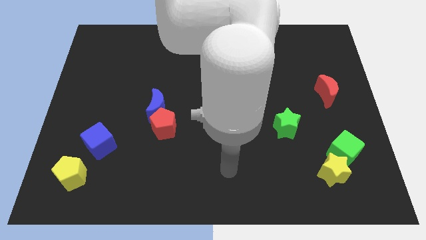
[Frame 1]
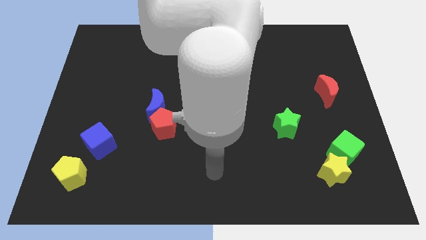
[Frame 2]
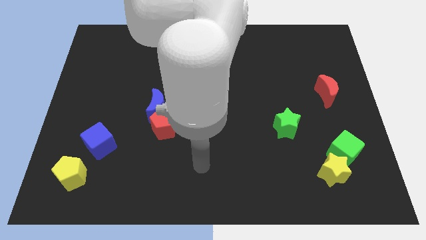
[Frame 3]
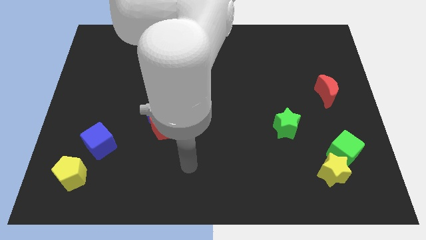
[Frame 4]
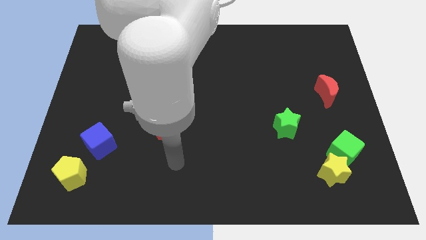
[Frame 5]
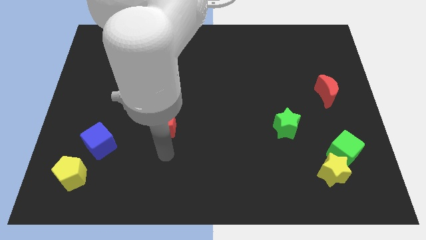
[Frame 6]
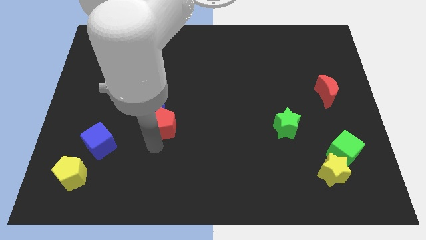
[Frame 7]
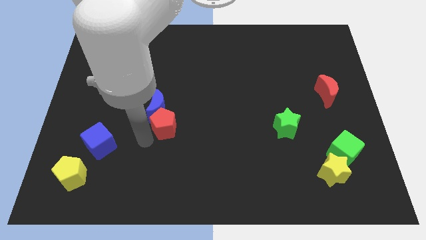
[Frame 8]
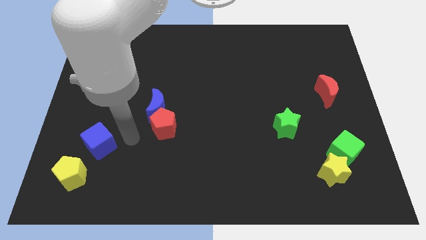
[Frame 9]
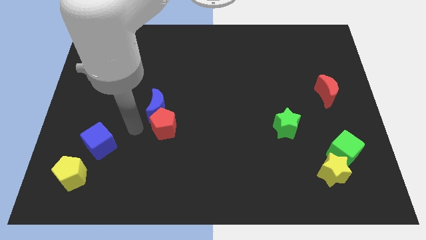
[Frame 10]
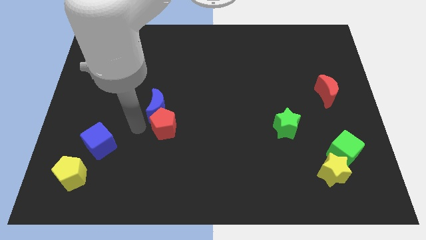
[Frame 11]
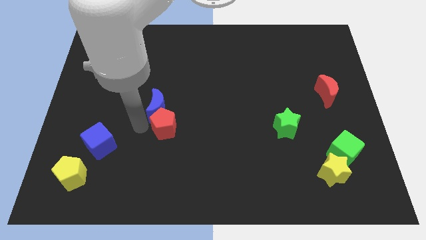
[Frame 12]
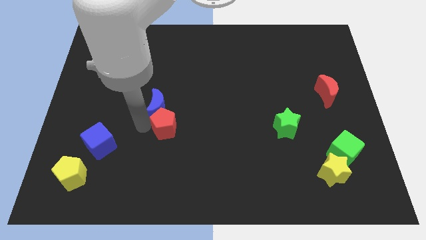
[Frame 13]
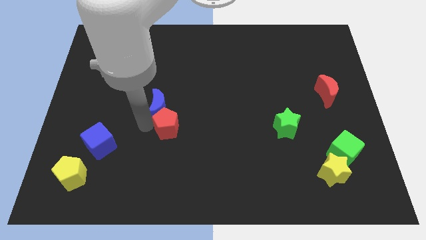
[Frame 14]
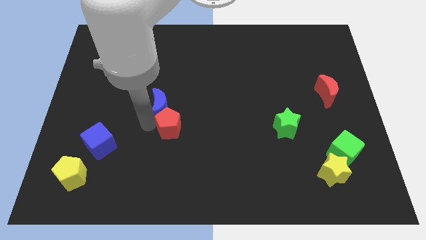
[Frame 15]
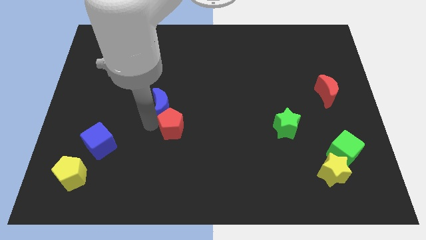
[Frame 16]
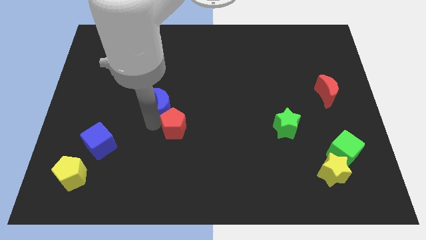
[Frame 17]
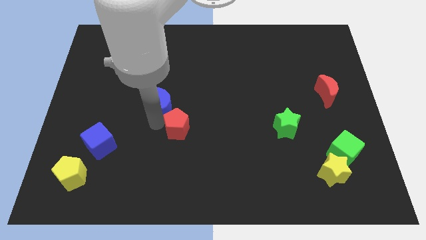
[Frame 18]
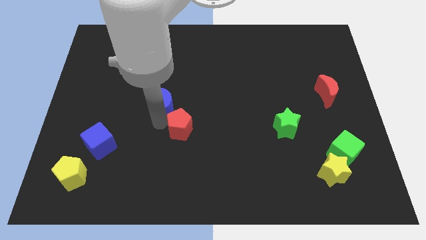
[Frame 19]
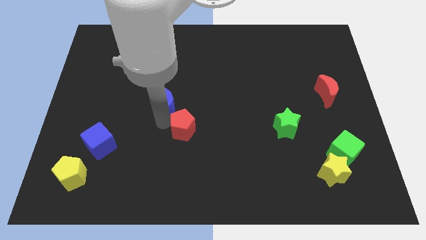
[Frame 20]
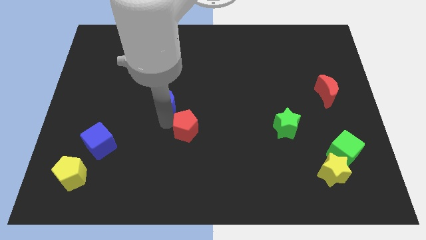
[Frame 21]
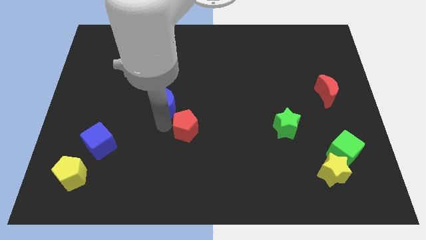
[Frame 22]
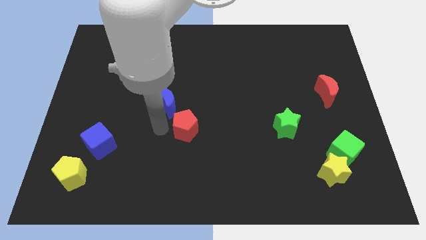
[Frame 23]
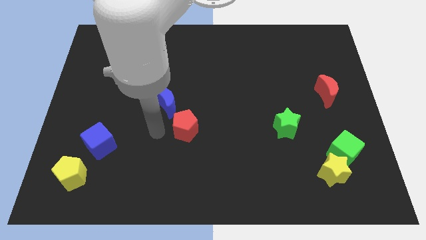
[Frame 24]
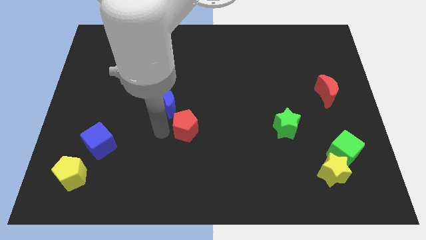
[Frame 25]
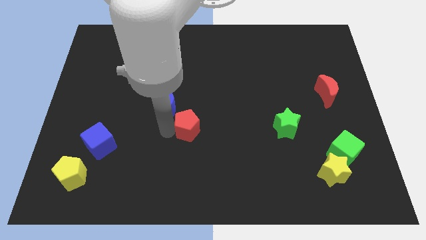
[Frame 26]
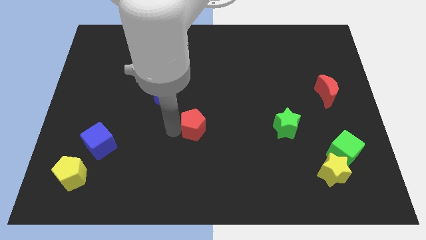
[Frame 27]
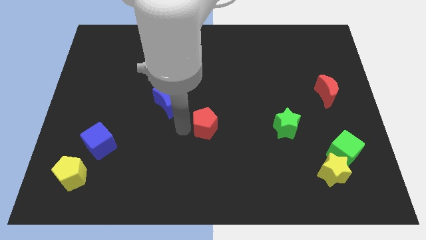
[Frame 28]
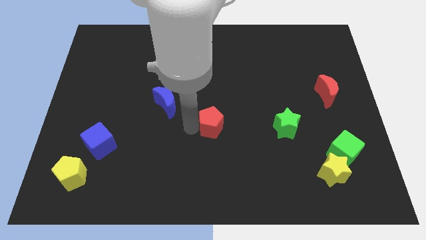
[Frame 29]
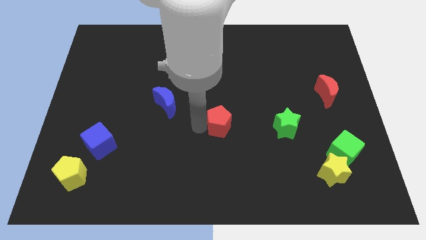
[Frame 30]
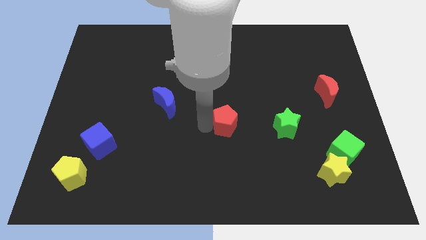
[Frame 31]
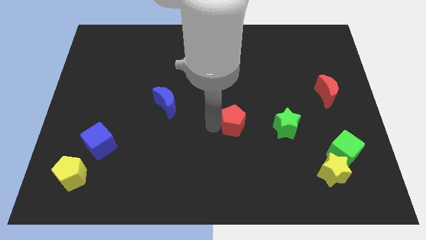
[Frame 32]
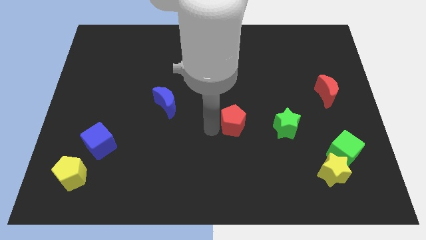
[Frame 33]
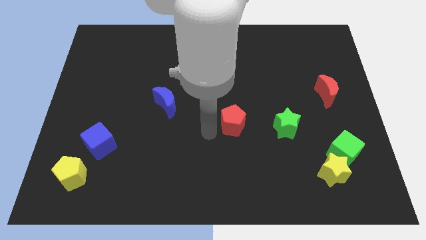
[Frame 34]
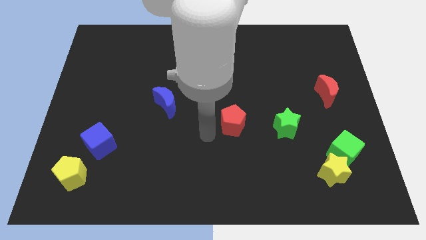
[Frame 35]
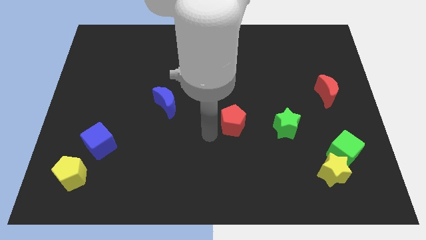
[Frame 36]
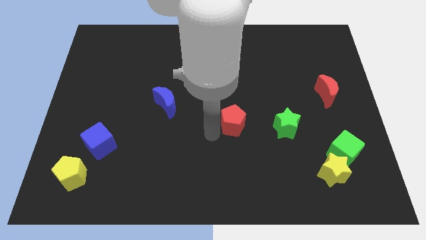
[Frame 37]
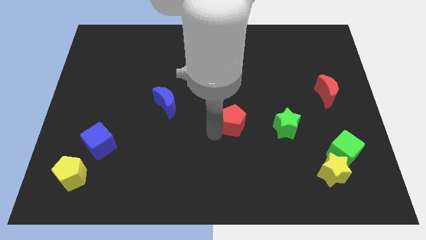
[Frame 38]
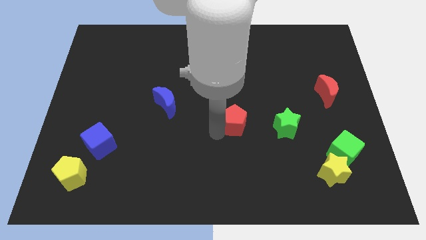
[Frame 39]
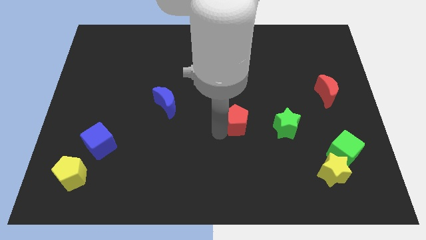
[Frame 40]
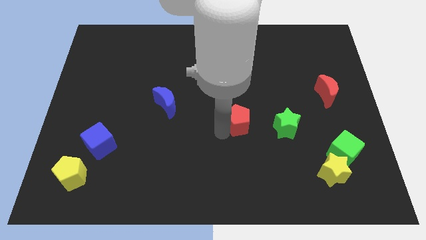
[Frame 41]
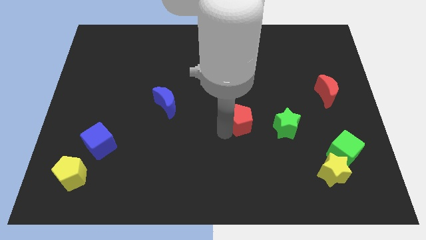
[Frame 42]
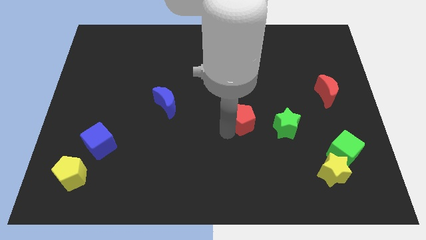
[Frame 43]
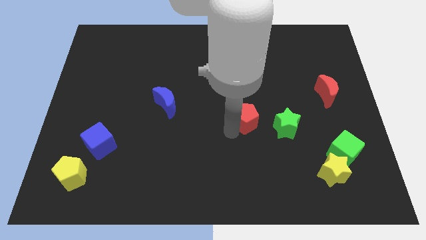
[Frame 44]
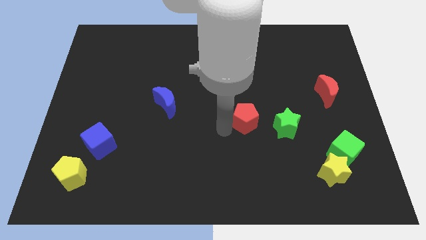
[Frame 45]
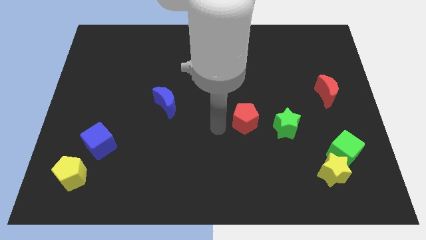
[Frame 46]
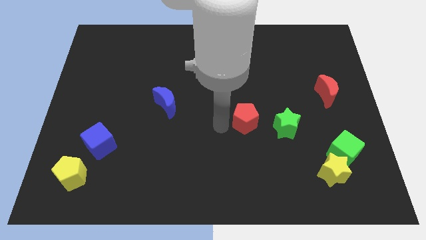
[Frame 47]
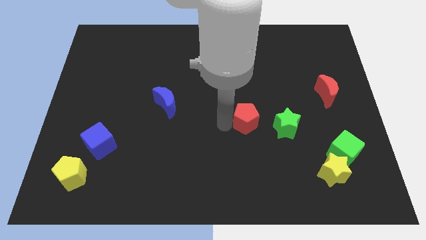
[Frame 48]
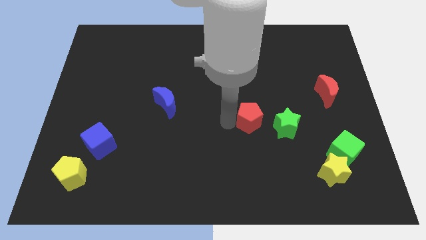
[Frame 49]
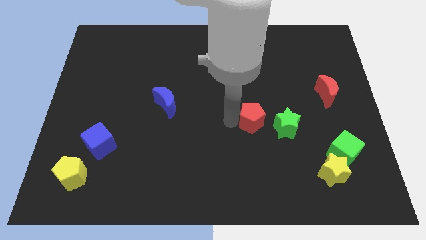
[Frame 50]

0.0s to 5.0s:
move the red pentagon right

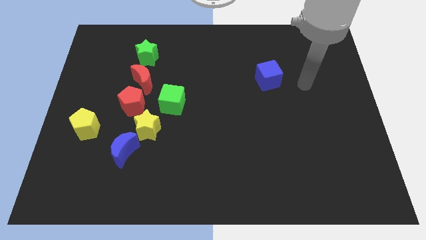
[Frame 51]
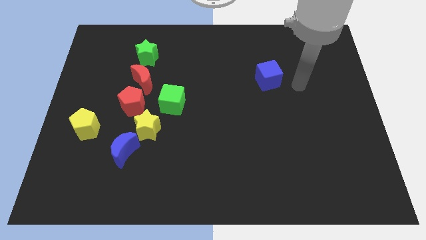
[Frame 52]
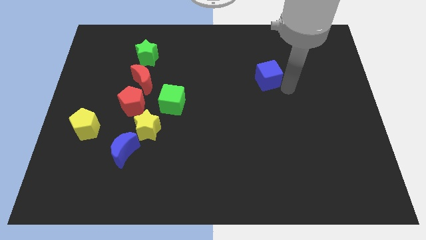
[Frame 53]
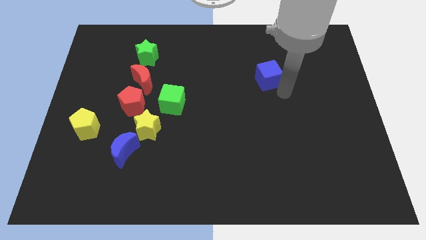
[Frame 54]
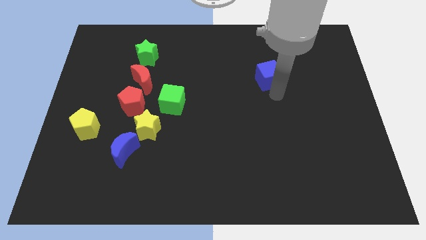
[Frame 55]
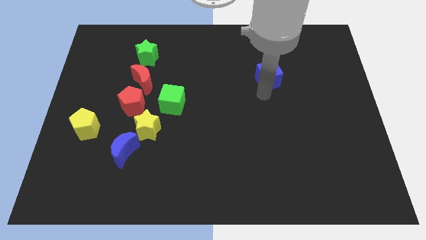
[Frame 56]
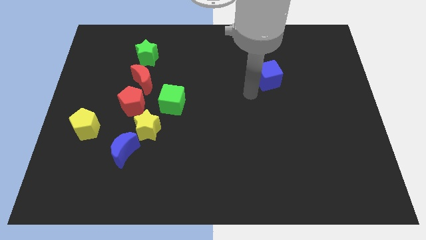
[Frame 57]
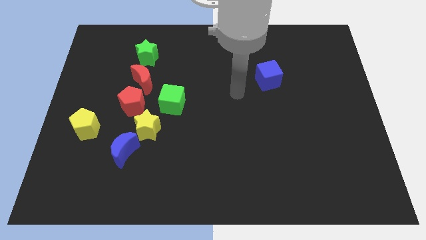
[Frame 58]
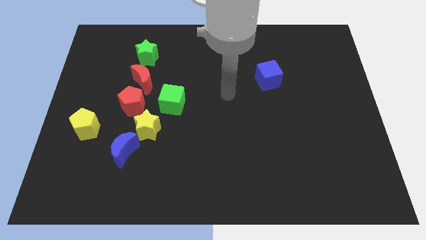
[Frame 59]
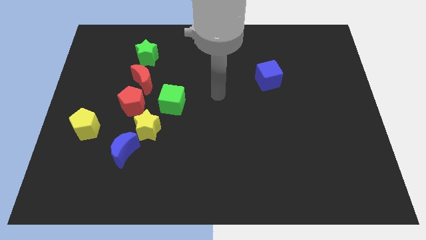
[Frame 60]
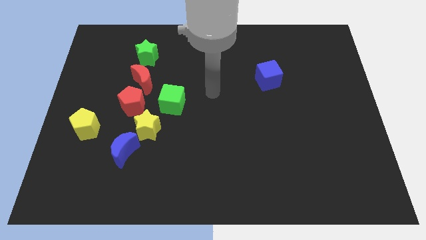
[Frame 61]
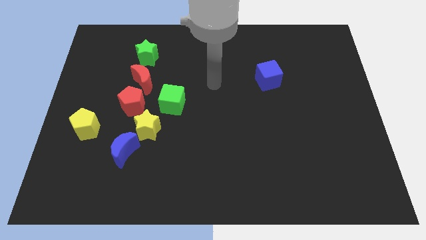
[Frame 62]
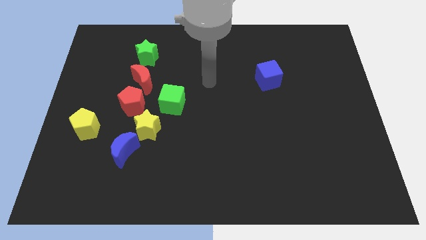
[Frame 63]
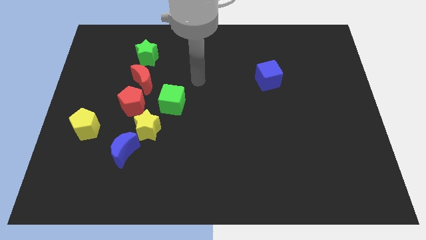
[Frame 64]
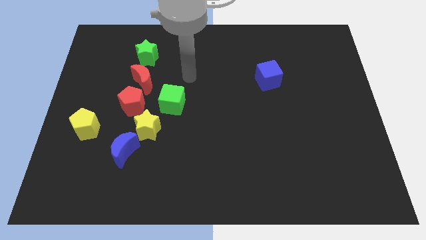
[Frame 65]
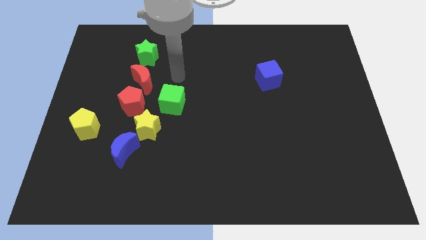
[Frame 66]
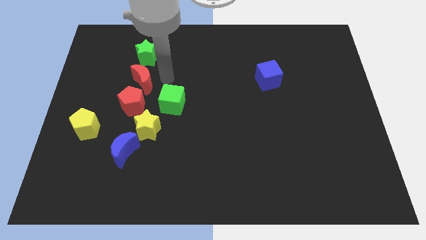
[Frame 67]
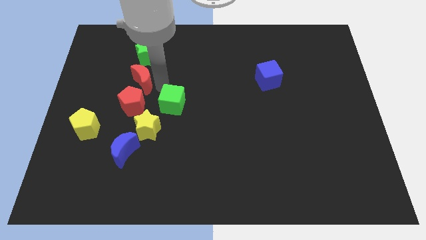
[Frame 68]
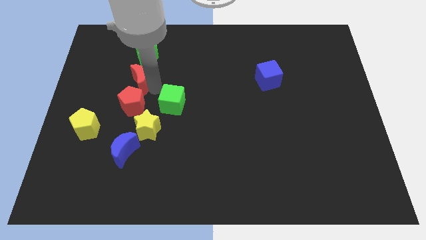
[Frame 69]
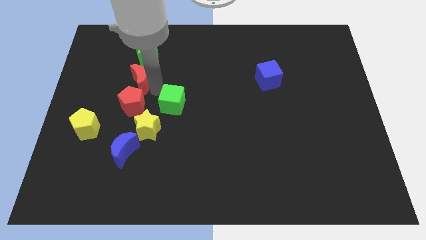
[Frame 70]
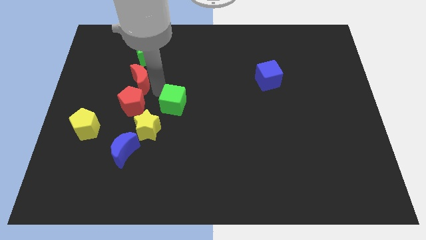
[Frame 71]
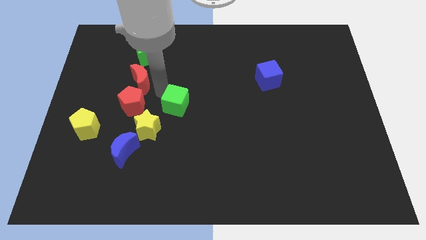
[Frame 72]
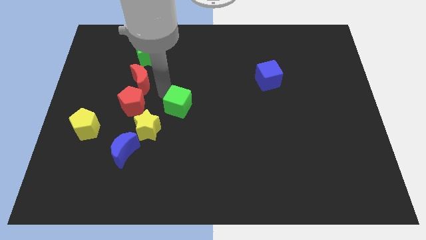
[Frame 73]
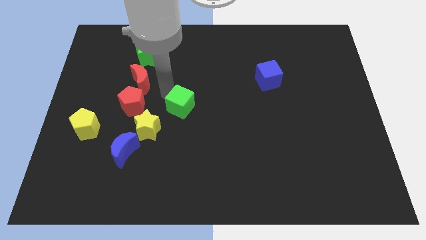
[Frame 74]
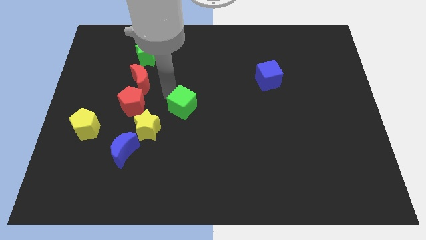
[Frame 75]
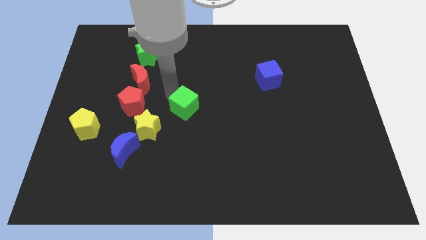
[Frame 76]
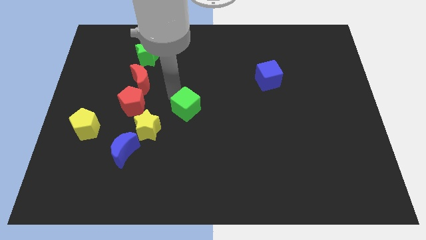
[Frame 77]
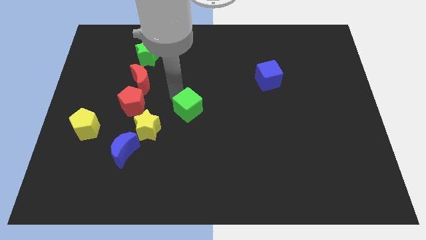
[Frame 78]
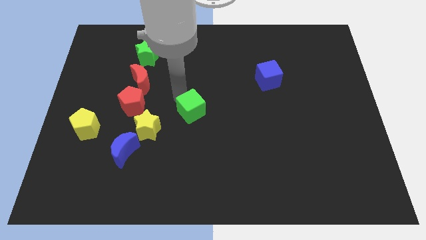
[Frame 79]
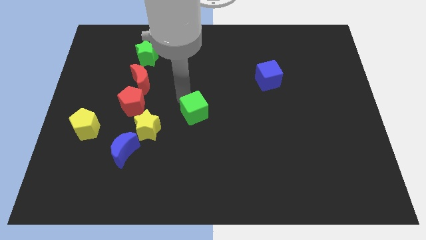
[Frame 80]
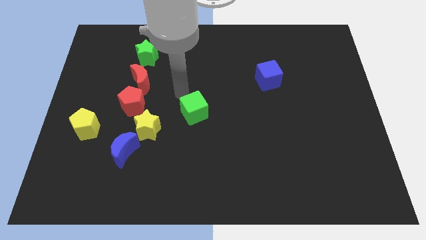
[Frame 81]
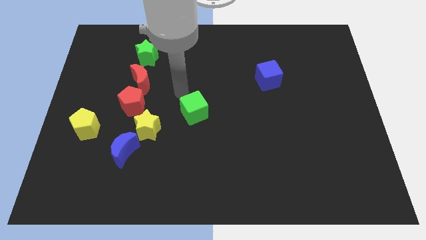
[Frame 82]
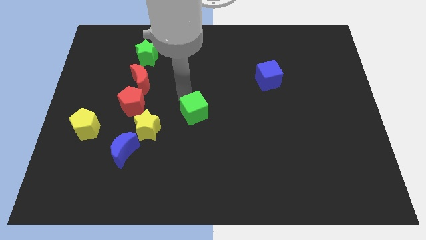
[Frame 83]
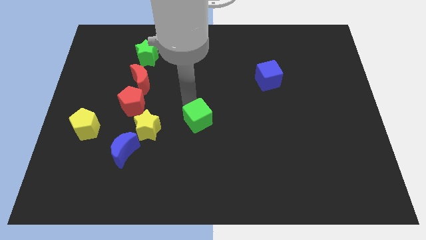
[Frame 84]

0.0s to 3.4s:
slightly push the green cube diagonally down and right
